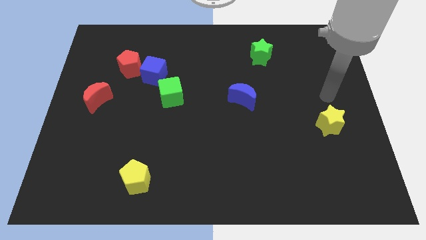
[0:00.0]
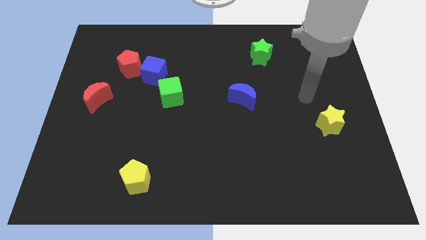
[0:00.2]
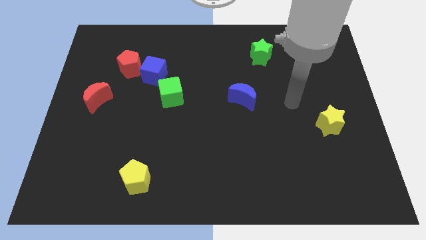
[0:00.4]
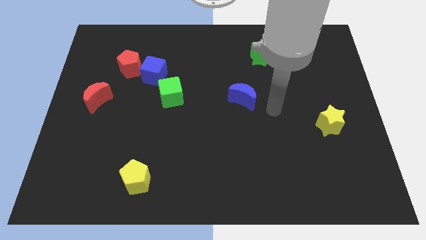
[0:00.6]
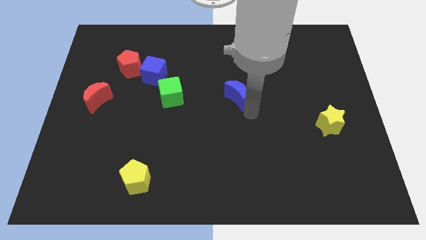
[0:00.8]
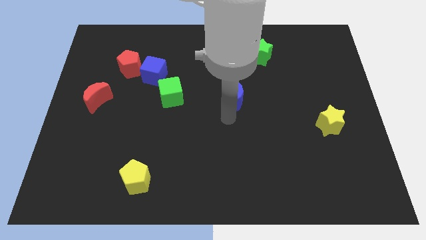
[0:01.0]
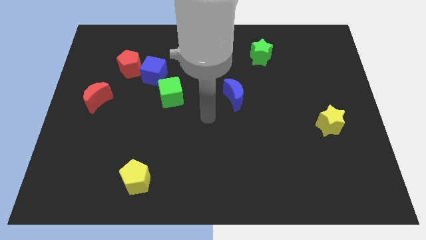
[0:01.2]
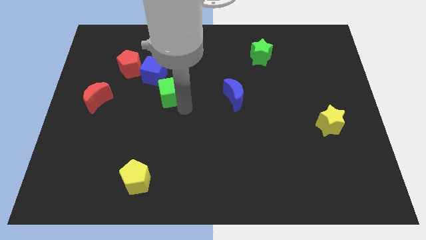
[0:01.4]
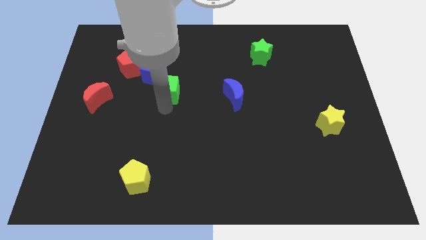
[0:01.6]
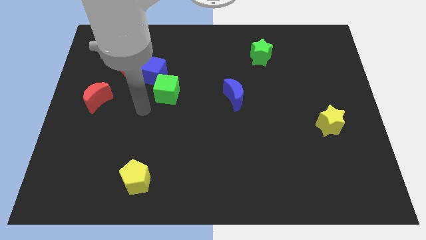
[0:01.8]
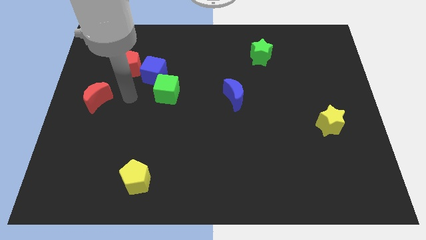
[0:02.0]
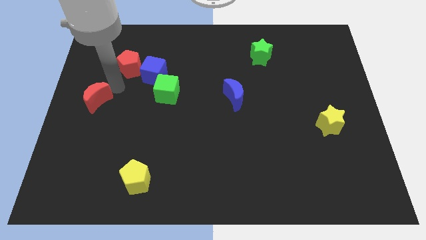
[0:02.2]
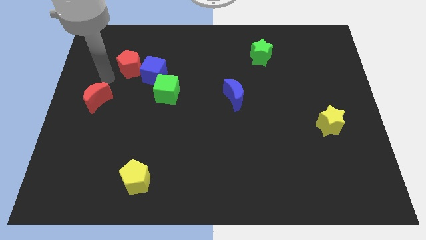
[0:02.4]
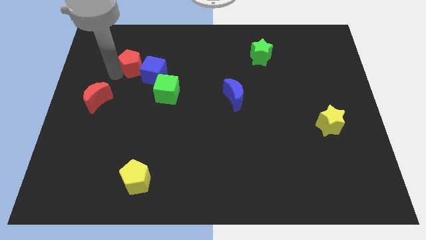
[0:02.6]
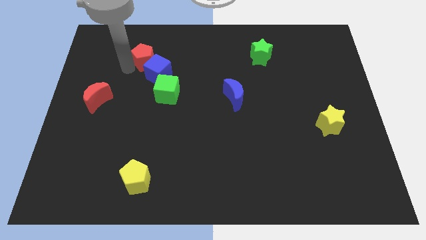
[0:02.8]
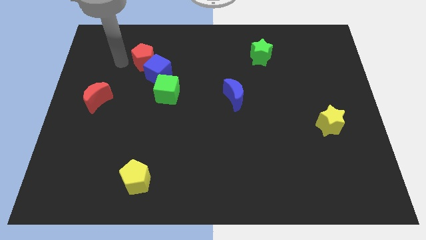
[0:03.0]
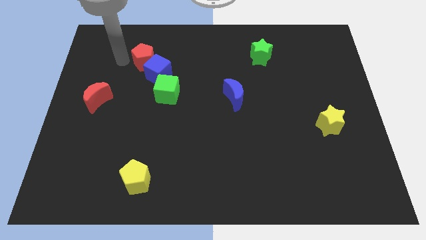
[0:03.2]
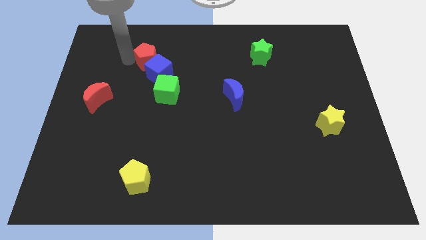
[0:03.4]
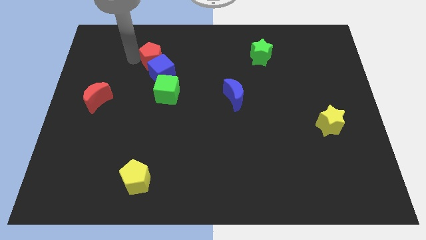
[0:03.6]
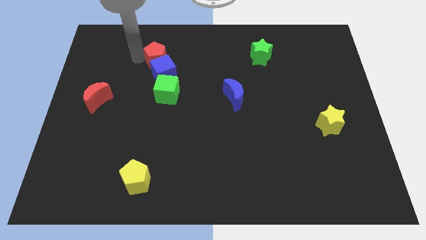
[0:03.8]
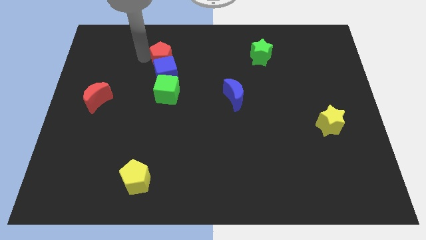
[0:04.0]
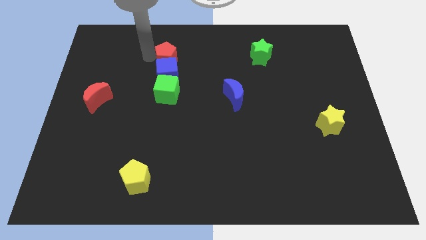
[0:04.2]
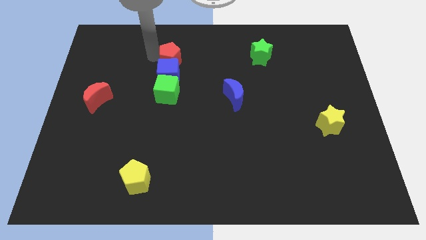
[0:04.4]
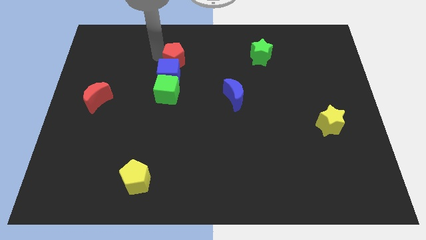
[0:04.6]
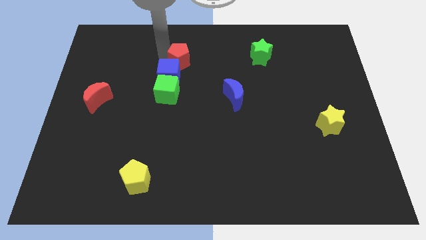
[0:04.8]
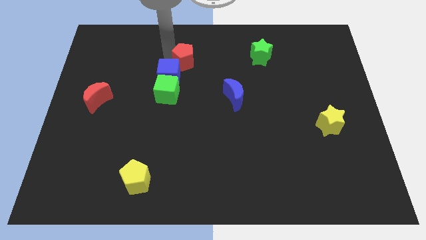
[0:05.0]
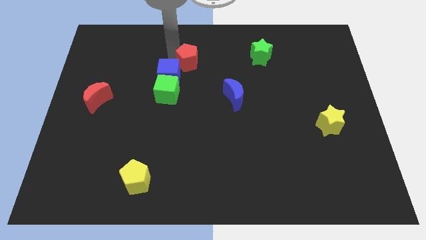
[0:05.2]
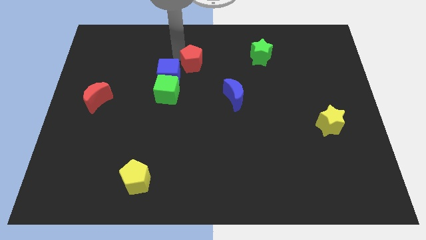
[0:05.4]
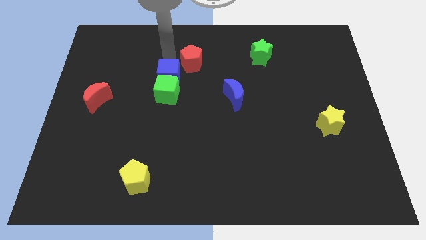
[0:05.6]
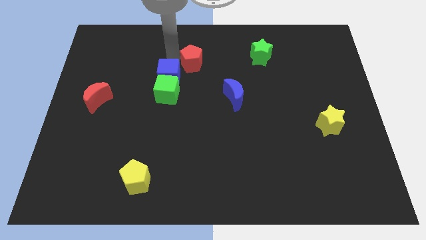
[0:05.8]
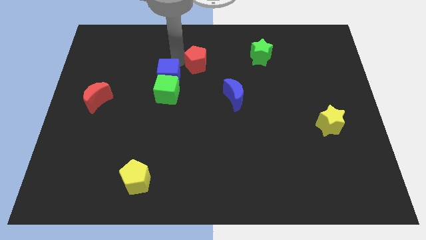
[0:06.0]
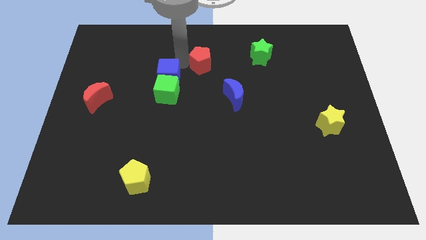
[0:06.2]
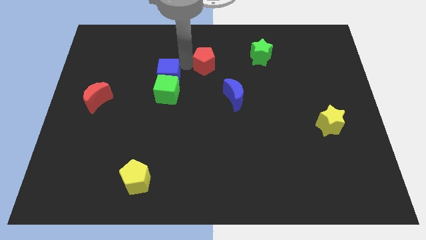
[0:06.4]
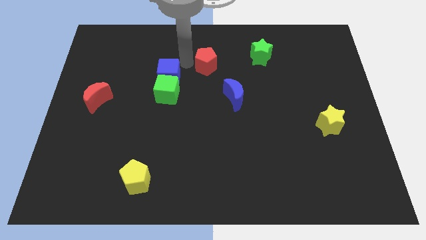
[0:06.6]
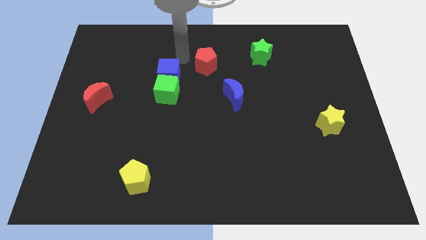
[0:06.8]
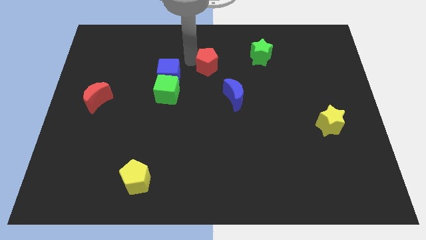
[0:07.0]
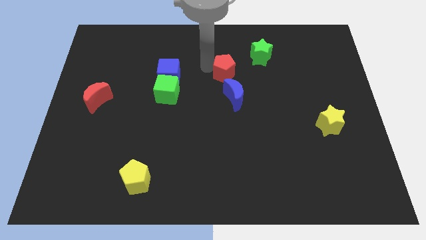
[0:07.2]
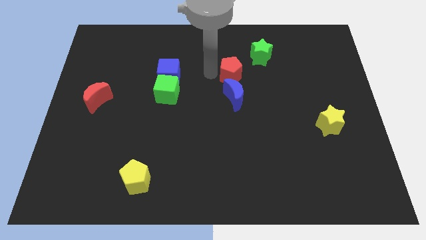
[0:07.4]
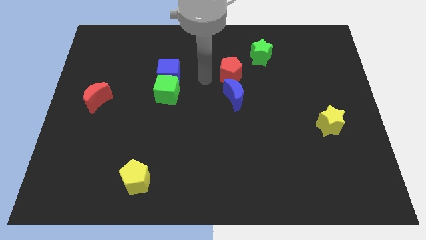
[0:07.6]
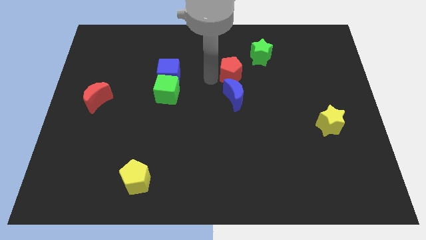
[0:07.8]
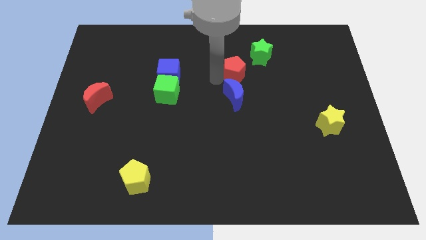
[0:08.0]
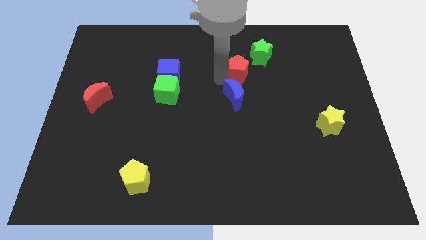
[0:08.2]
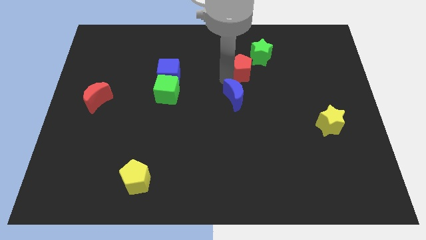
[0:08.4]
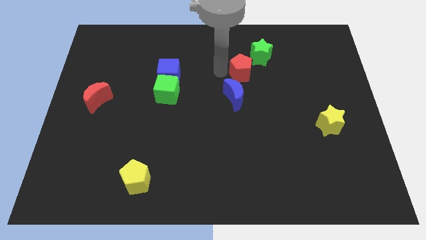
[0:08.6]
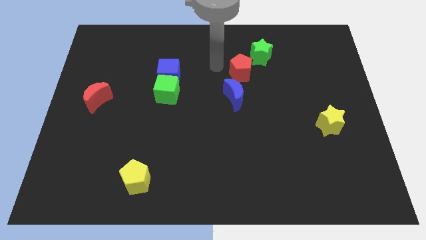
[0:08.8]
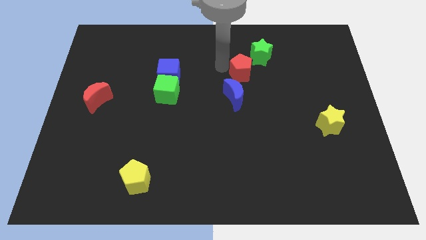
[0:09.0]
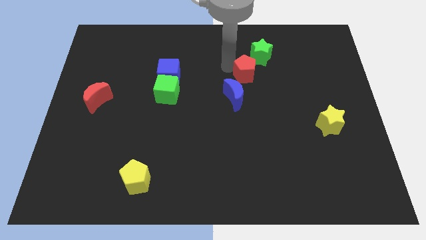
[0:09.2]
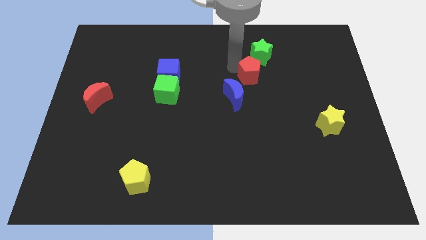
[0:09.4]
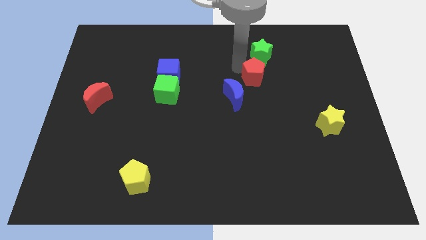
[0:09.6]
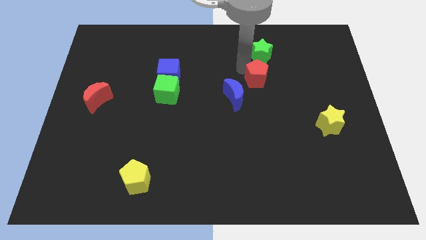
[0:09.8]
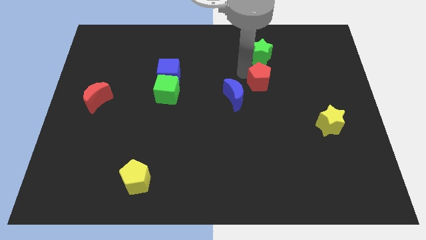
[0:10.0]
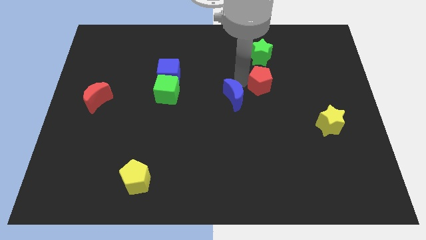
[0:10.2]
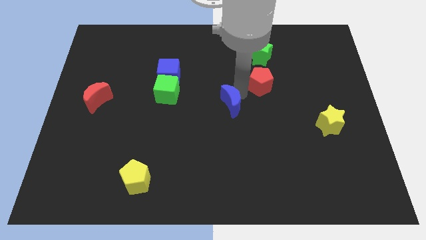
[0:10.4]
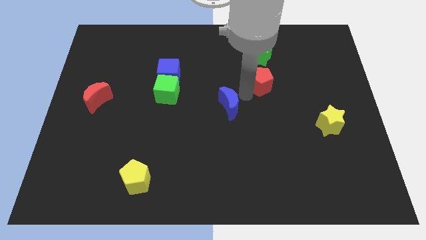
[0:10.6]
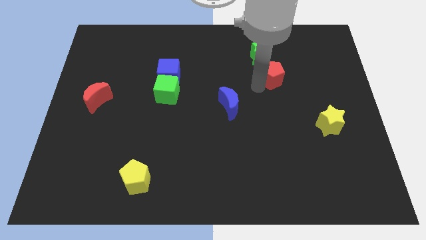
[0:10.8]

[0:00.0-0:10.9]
push the red pentagon diagonally down and to the right of the green star

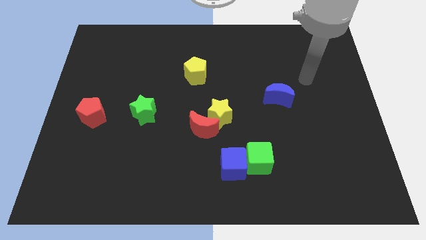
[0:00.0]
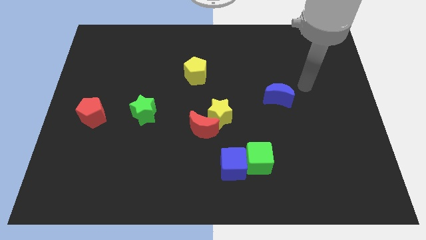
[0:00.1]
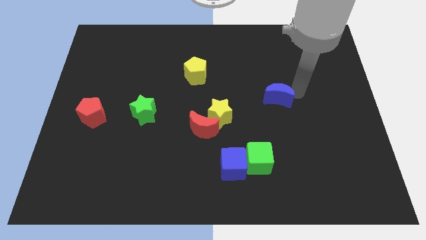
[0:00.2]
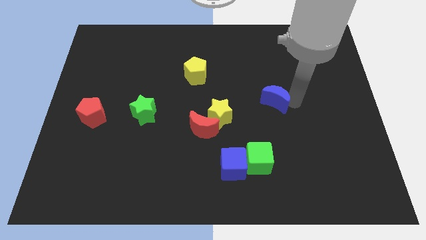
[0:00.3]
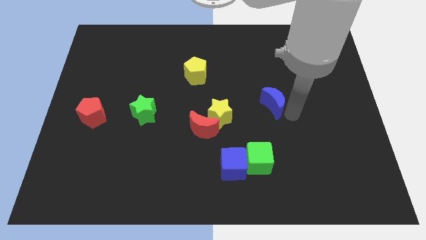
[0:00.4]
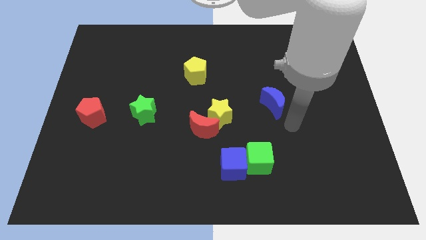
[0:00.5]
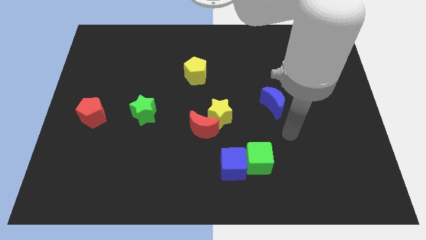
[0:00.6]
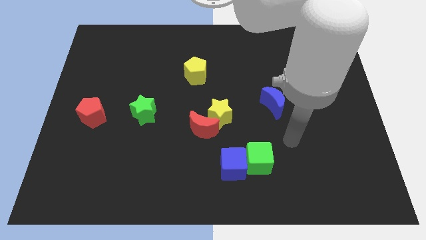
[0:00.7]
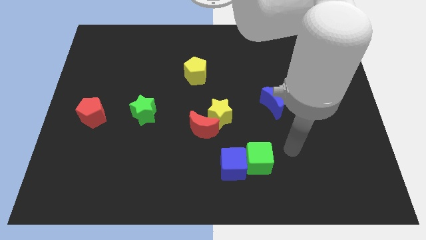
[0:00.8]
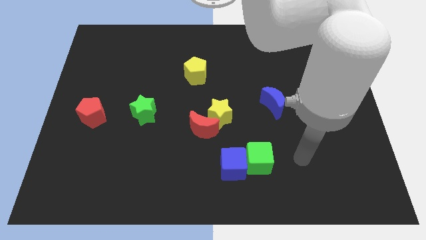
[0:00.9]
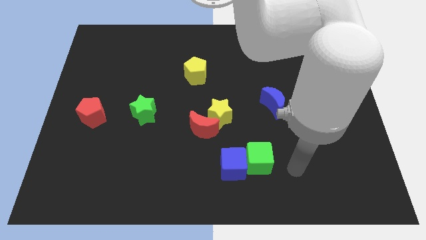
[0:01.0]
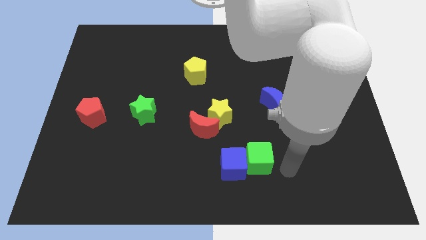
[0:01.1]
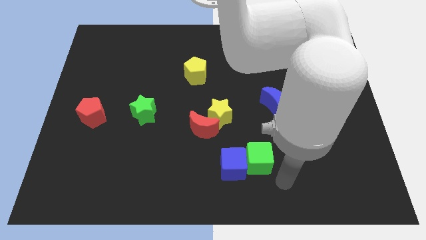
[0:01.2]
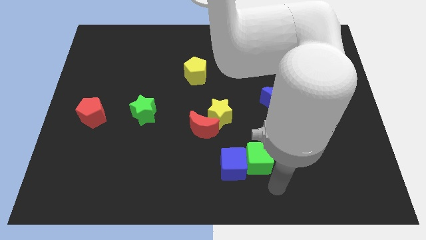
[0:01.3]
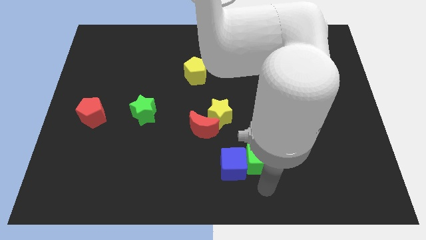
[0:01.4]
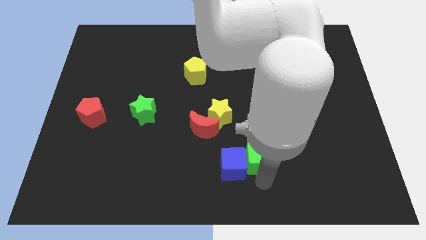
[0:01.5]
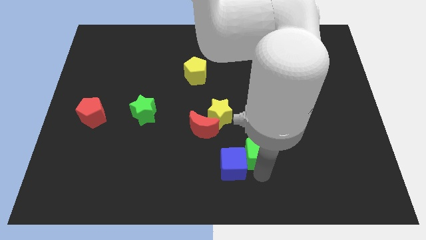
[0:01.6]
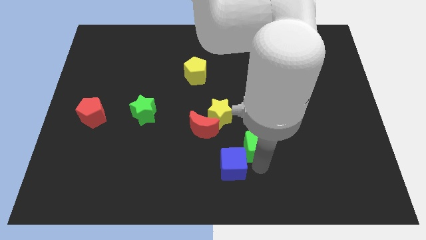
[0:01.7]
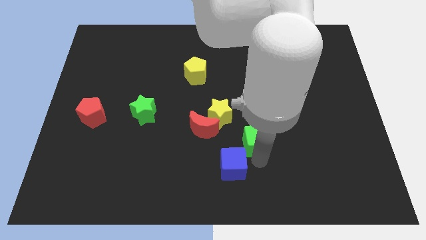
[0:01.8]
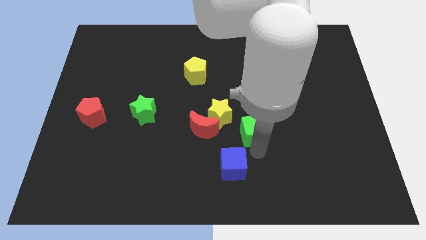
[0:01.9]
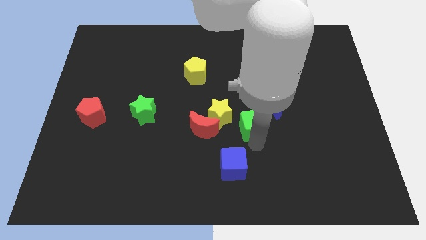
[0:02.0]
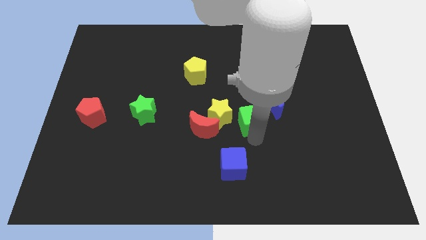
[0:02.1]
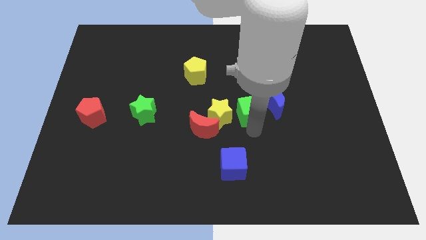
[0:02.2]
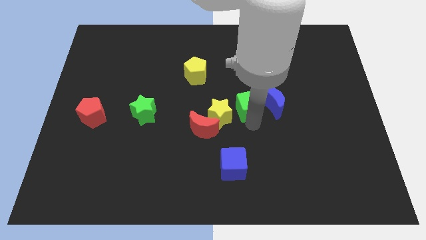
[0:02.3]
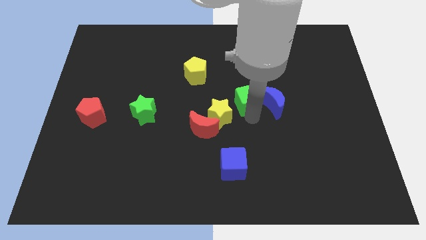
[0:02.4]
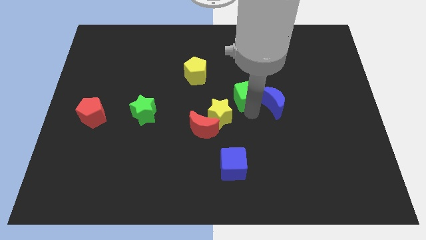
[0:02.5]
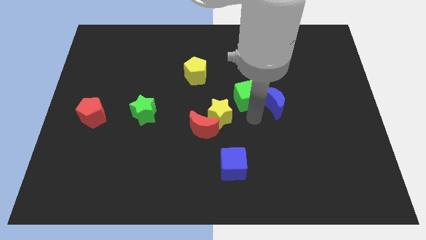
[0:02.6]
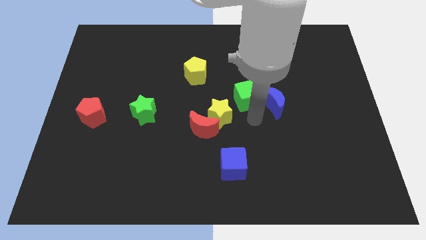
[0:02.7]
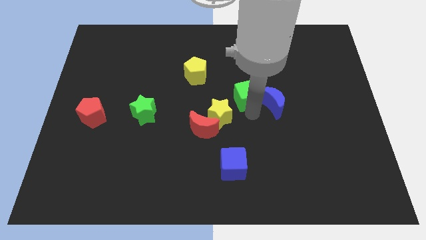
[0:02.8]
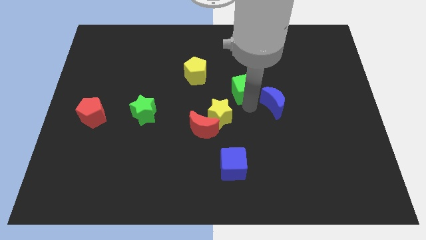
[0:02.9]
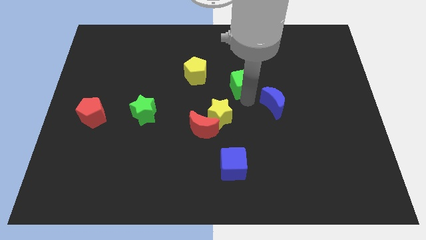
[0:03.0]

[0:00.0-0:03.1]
slide the green cube just right of the yellow pentagon
